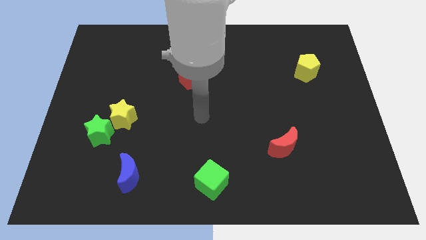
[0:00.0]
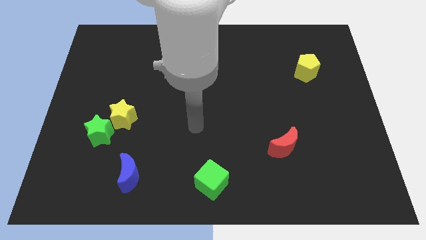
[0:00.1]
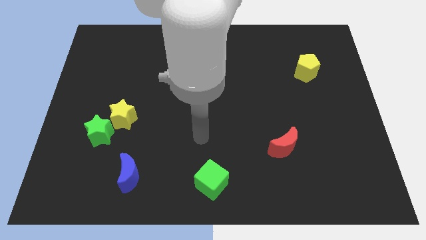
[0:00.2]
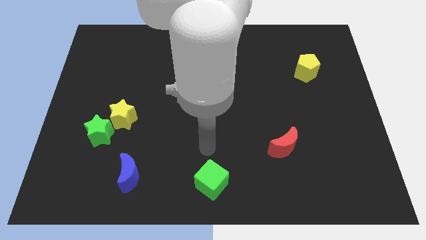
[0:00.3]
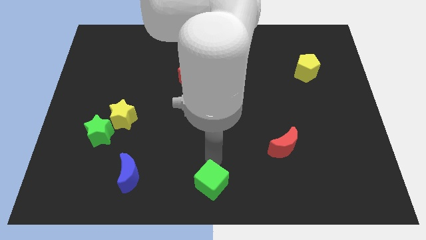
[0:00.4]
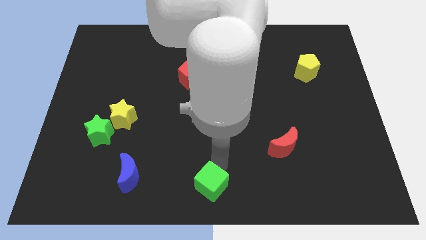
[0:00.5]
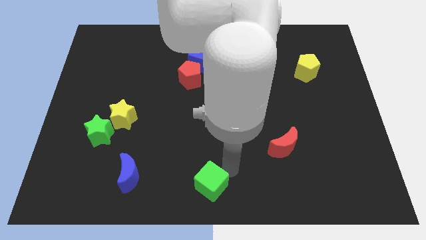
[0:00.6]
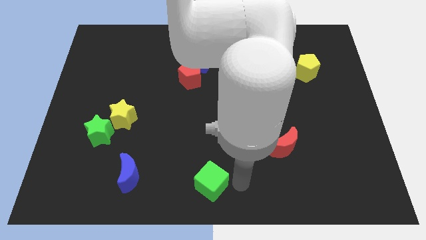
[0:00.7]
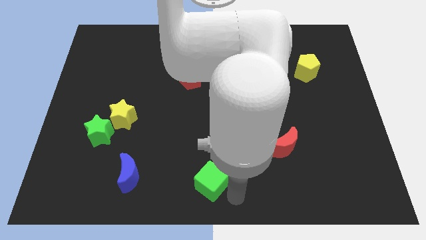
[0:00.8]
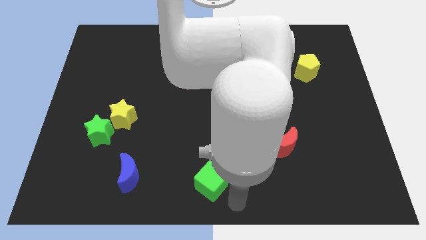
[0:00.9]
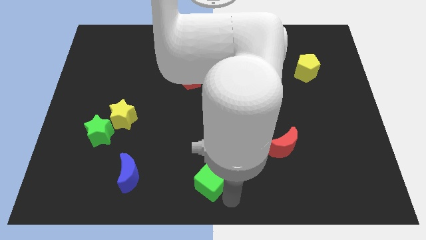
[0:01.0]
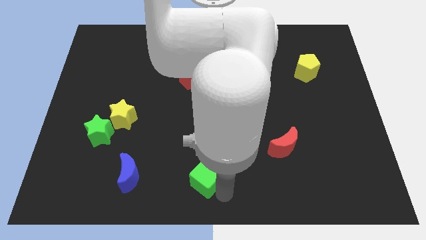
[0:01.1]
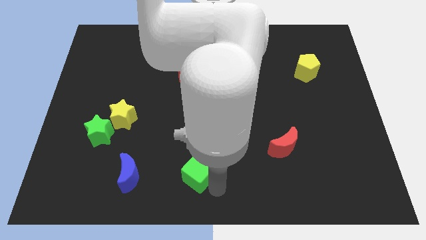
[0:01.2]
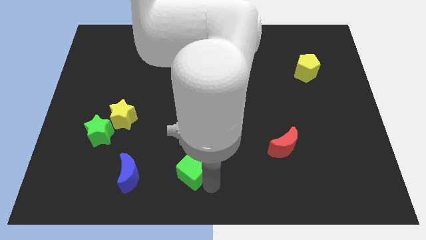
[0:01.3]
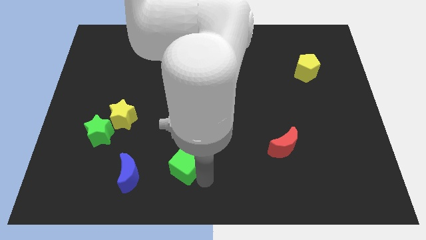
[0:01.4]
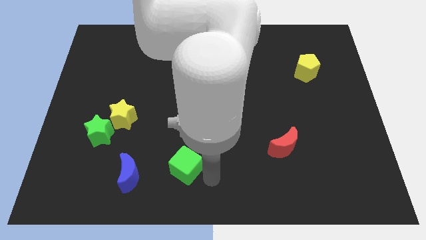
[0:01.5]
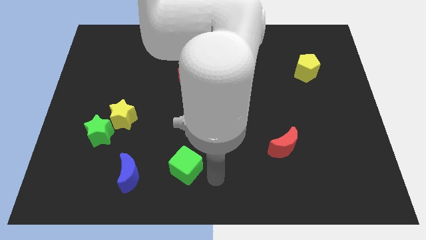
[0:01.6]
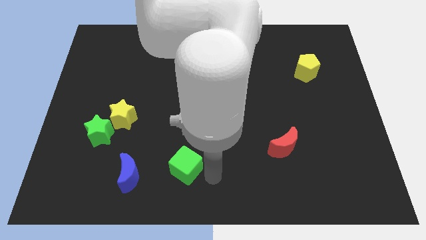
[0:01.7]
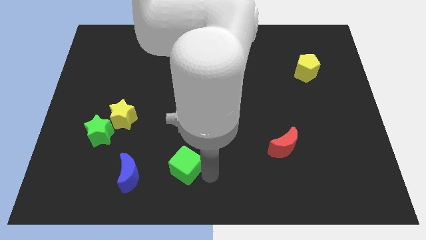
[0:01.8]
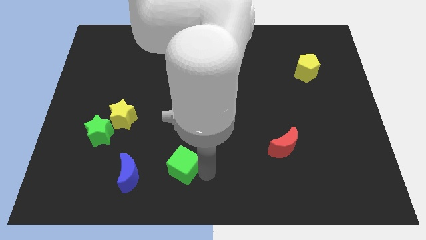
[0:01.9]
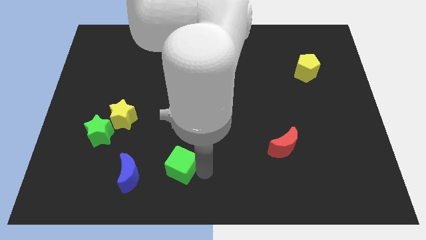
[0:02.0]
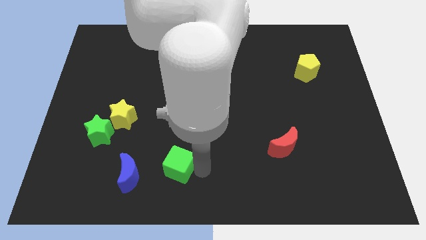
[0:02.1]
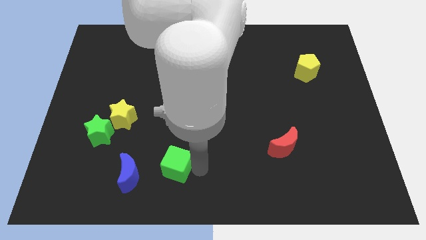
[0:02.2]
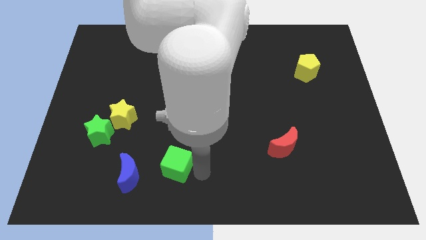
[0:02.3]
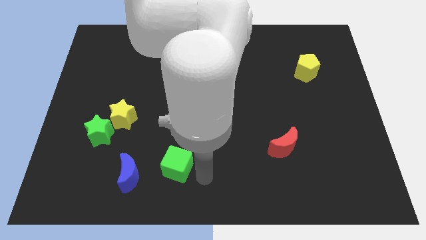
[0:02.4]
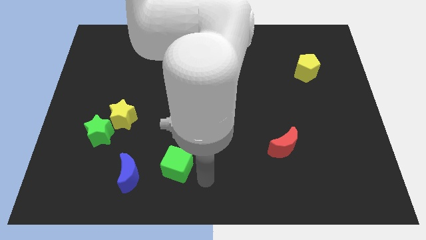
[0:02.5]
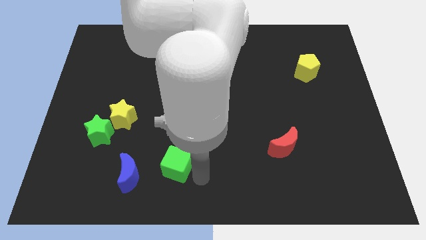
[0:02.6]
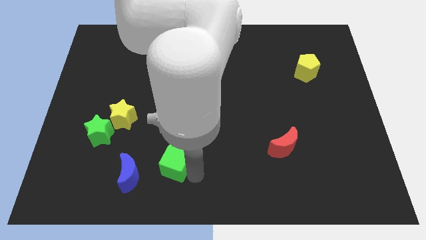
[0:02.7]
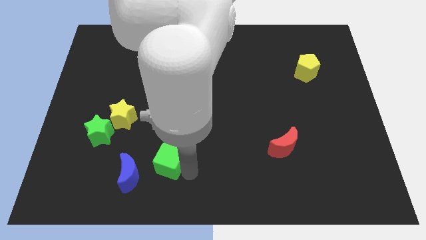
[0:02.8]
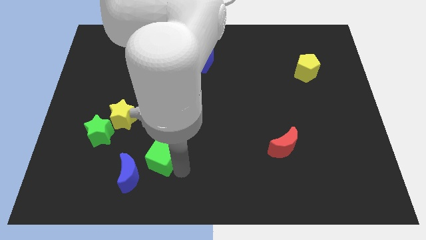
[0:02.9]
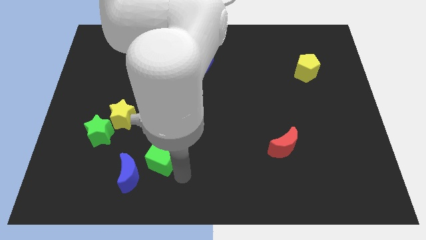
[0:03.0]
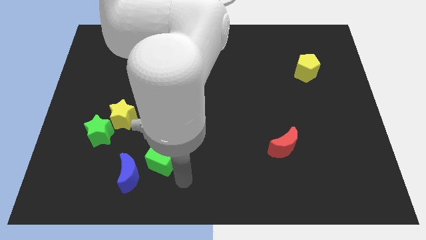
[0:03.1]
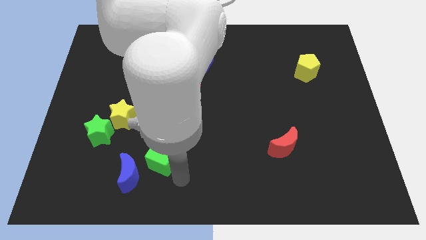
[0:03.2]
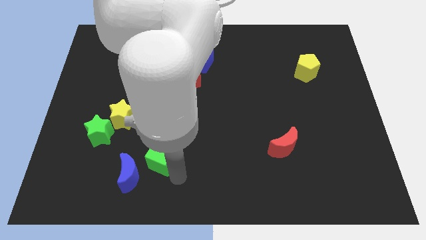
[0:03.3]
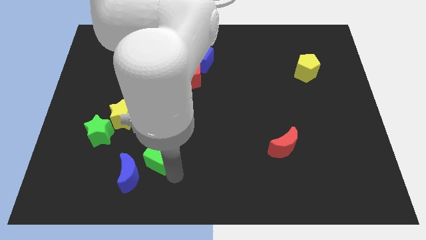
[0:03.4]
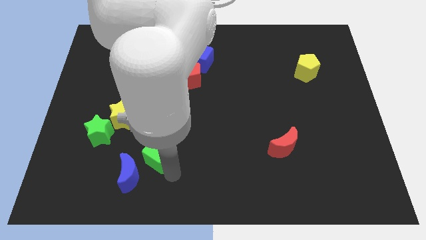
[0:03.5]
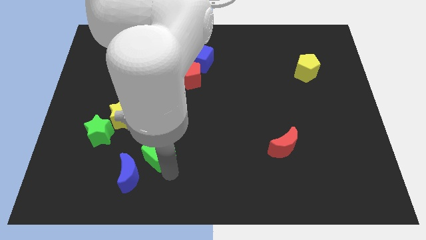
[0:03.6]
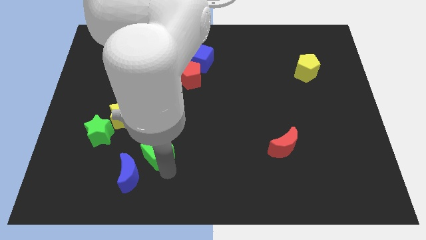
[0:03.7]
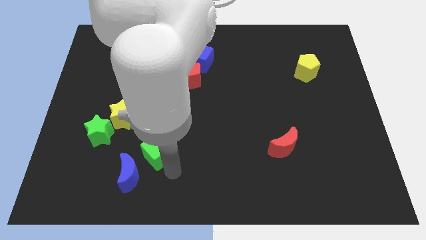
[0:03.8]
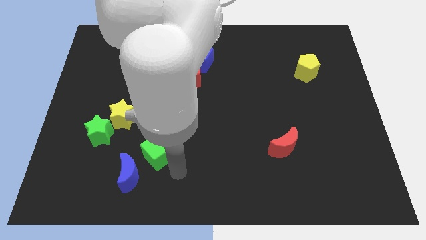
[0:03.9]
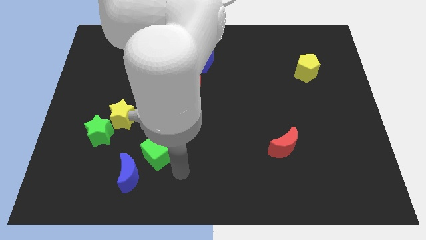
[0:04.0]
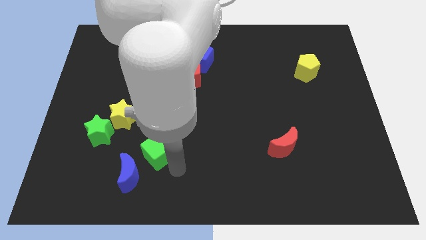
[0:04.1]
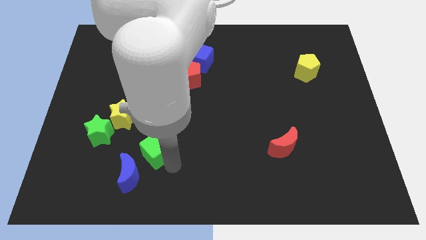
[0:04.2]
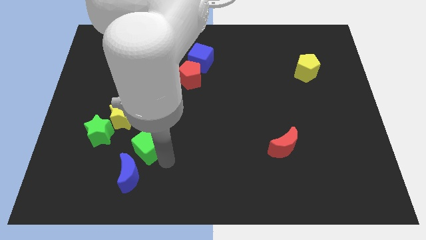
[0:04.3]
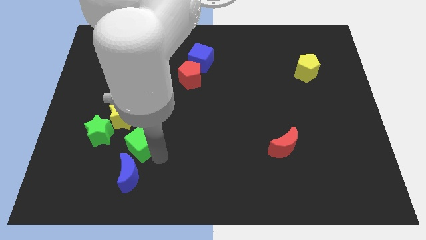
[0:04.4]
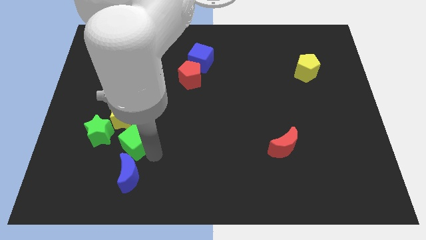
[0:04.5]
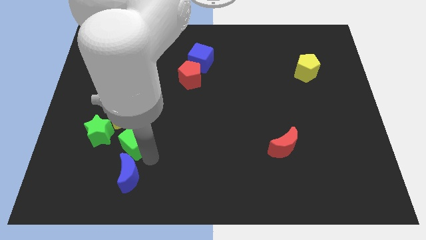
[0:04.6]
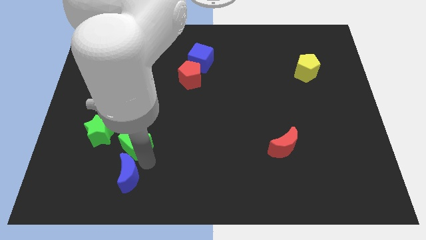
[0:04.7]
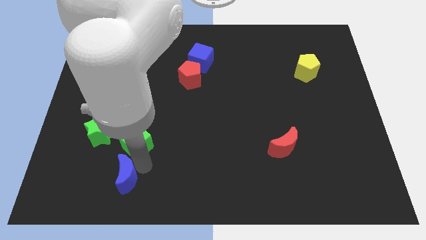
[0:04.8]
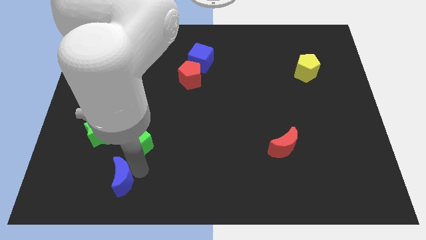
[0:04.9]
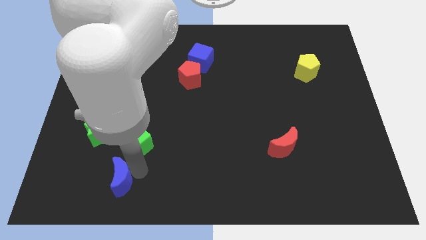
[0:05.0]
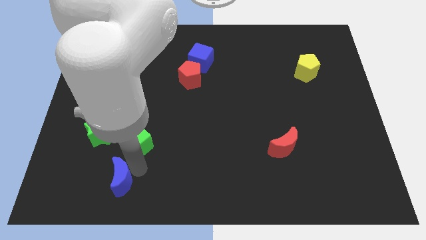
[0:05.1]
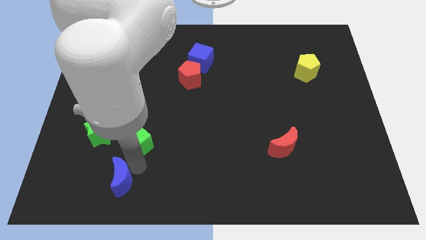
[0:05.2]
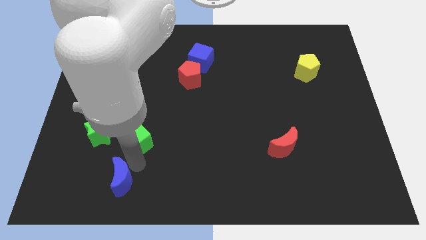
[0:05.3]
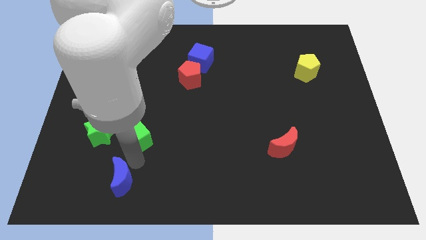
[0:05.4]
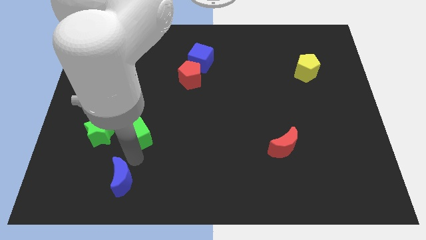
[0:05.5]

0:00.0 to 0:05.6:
slide the green cube towards the yellow star

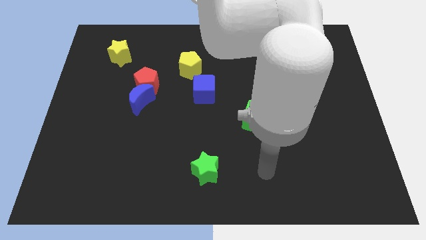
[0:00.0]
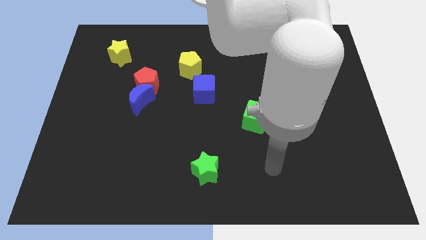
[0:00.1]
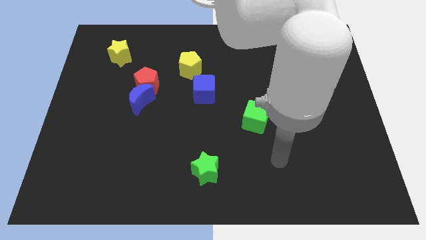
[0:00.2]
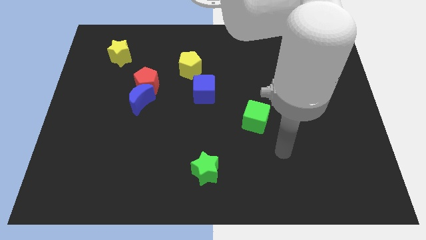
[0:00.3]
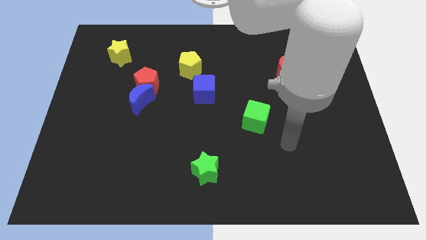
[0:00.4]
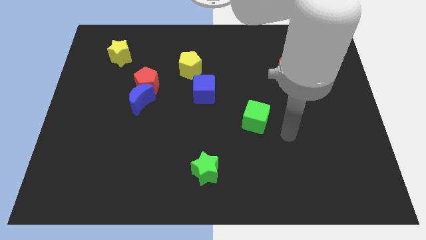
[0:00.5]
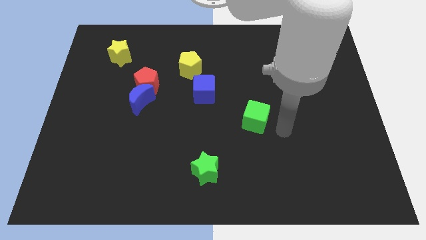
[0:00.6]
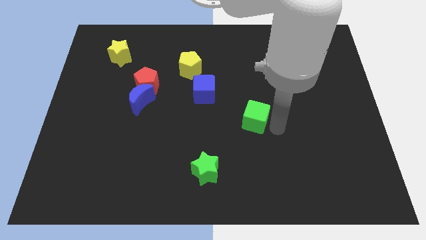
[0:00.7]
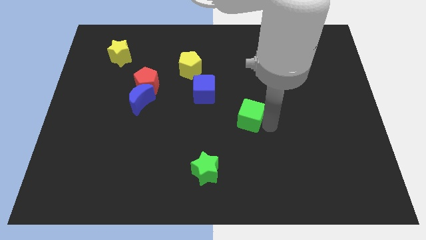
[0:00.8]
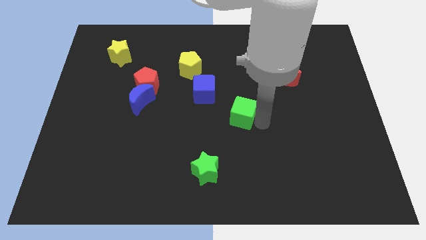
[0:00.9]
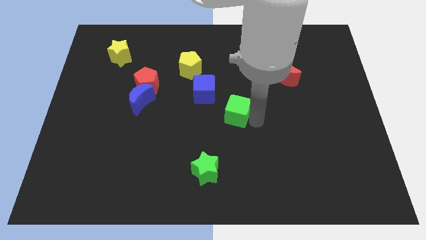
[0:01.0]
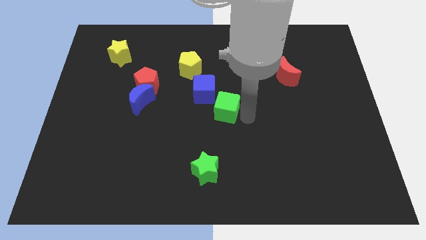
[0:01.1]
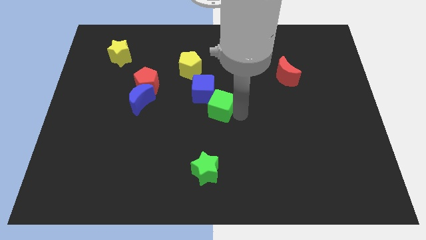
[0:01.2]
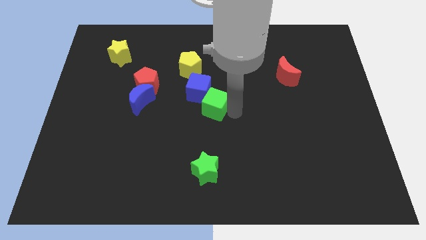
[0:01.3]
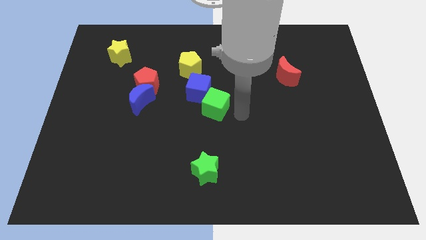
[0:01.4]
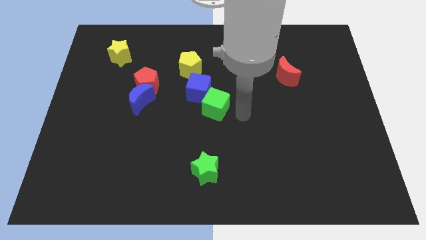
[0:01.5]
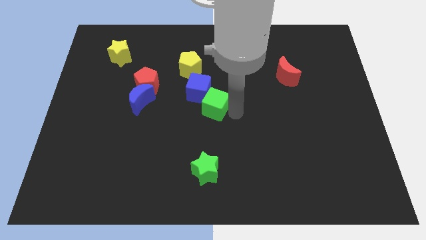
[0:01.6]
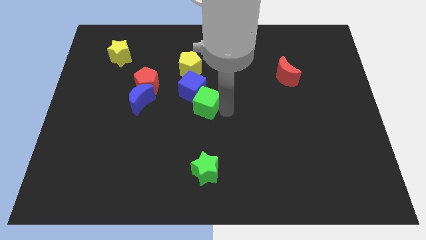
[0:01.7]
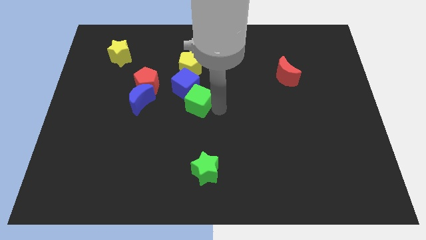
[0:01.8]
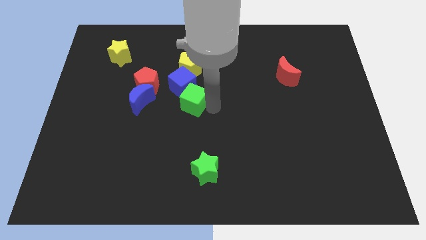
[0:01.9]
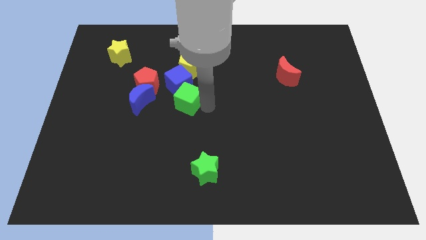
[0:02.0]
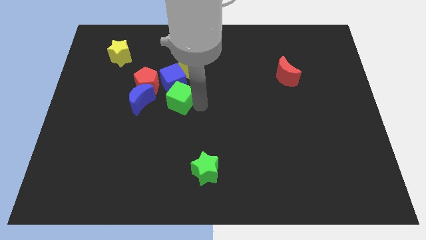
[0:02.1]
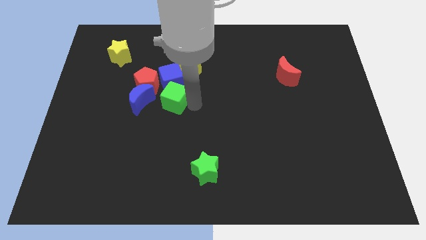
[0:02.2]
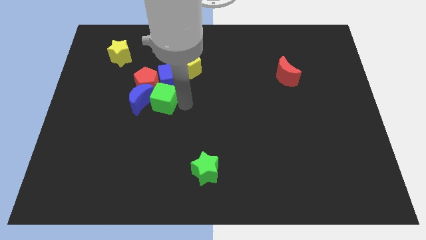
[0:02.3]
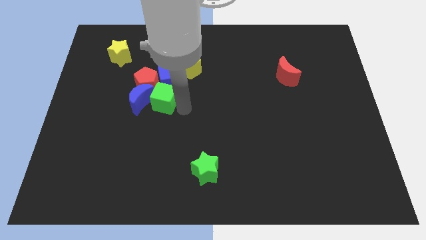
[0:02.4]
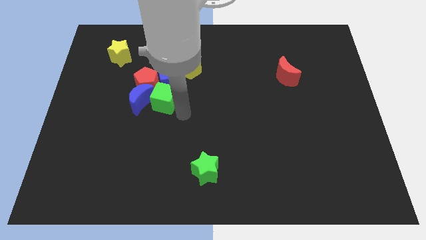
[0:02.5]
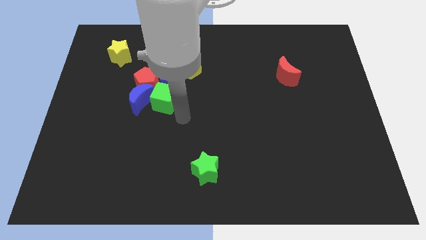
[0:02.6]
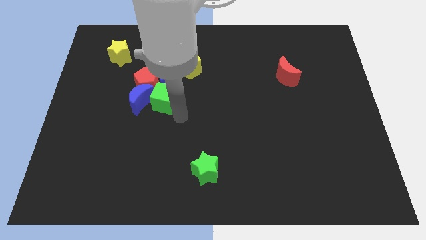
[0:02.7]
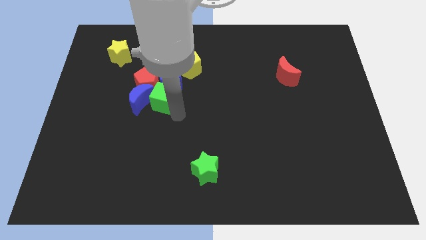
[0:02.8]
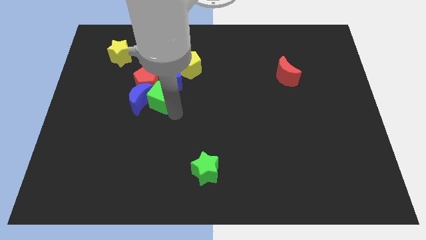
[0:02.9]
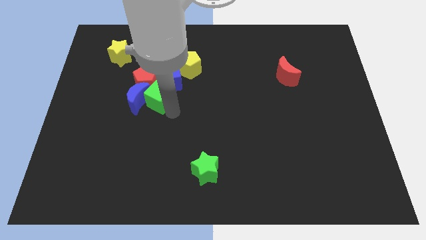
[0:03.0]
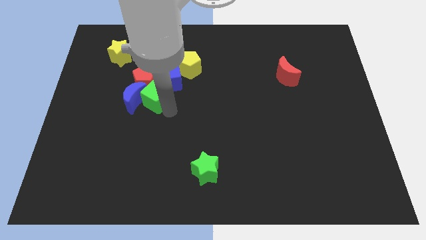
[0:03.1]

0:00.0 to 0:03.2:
put the green cube next to the red pentagon

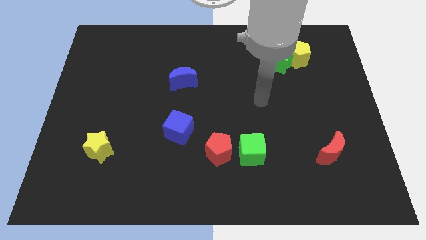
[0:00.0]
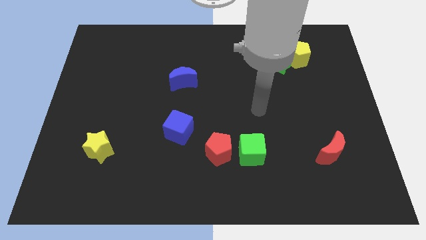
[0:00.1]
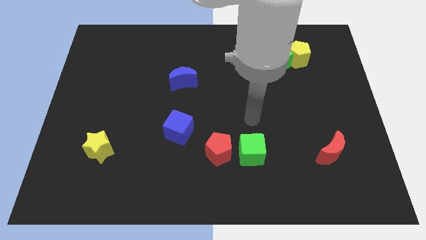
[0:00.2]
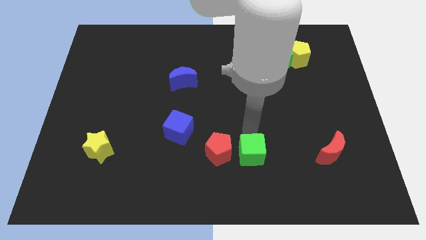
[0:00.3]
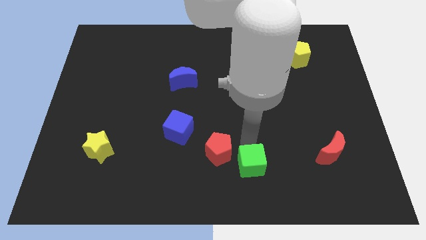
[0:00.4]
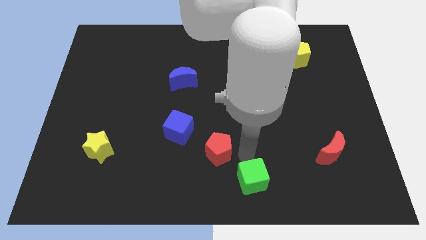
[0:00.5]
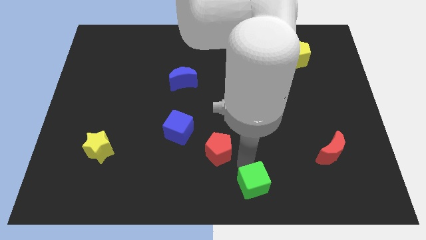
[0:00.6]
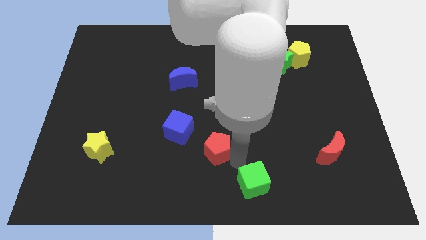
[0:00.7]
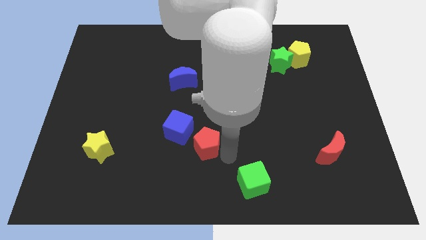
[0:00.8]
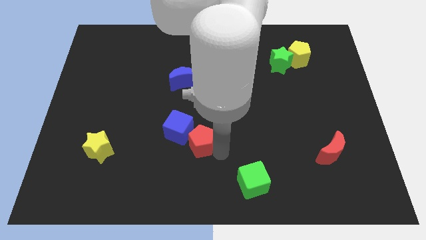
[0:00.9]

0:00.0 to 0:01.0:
put the red pentagon next to the blue cube
